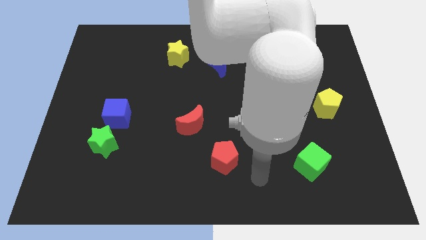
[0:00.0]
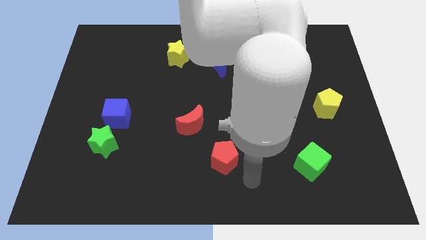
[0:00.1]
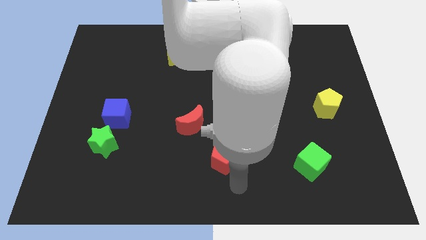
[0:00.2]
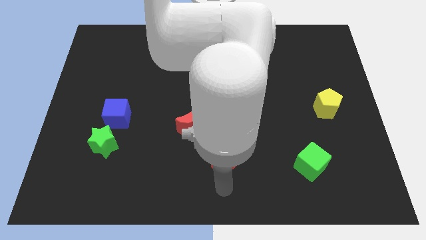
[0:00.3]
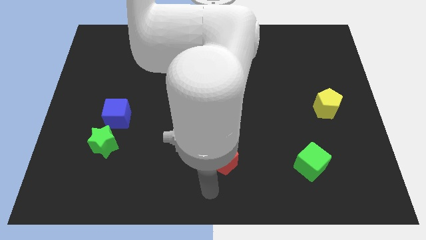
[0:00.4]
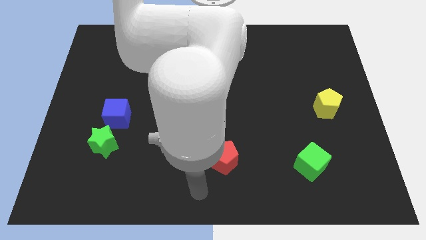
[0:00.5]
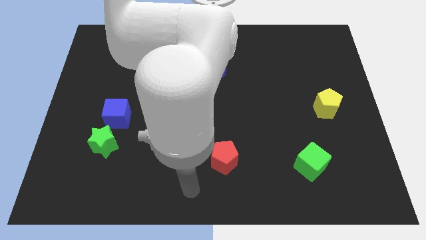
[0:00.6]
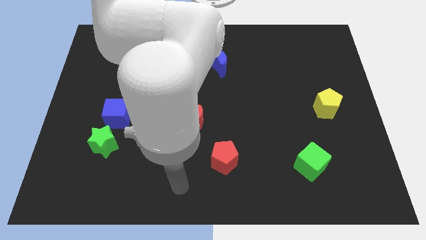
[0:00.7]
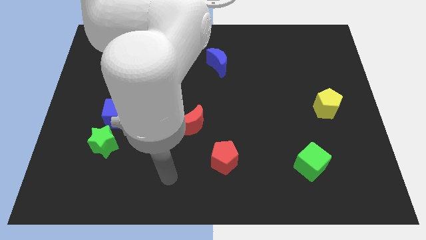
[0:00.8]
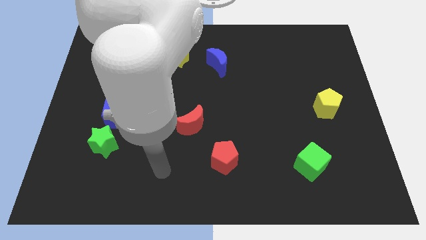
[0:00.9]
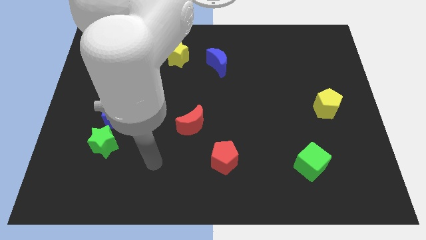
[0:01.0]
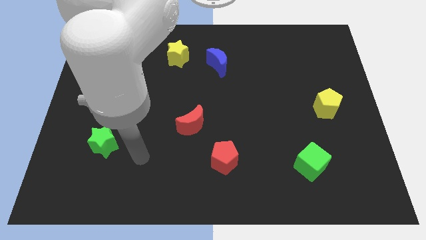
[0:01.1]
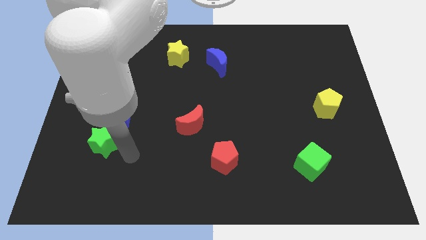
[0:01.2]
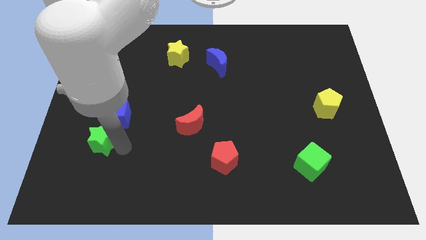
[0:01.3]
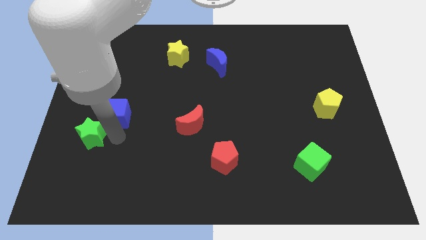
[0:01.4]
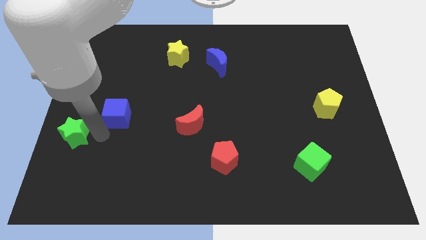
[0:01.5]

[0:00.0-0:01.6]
pull the blue cube apart from the green star

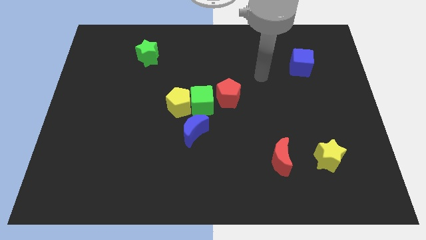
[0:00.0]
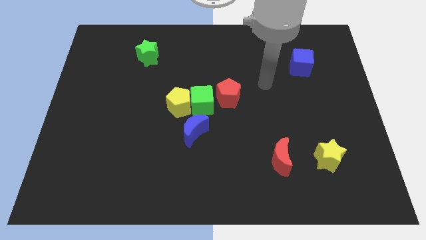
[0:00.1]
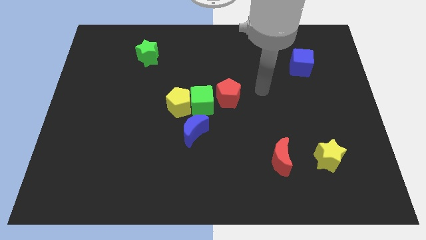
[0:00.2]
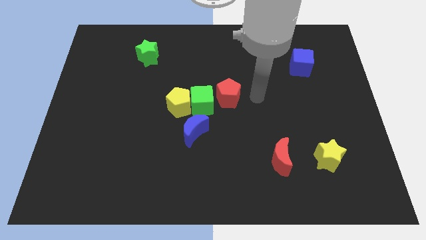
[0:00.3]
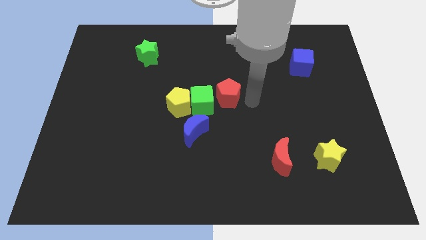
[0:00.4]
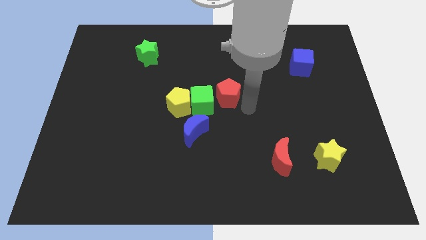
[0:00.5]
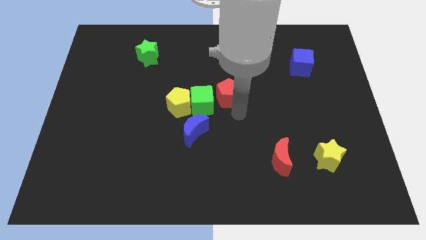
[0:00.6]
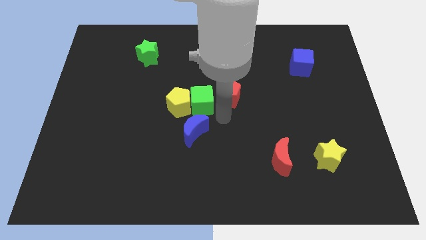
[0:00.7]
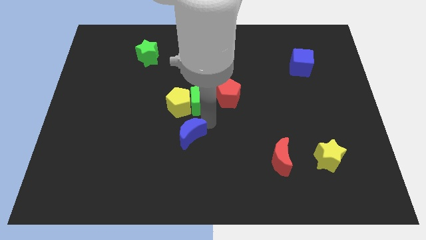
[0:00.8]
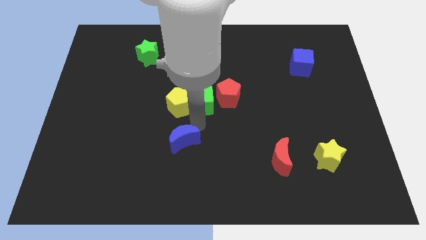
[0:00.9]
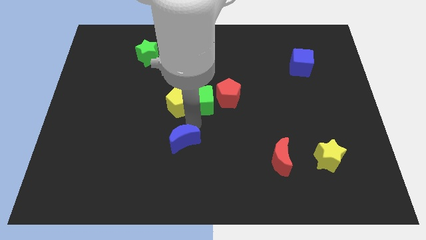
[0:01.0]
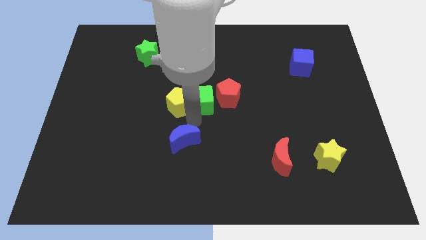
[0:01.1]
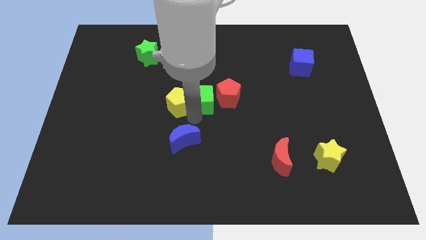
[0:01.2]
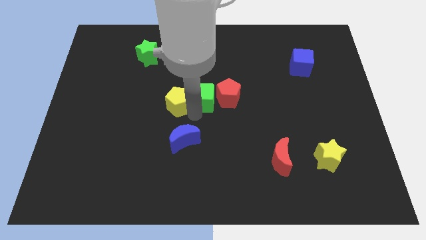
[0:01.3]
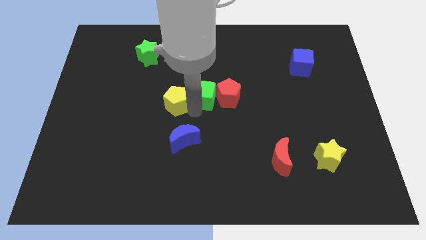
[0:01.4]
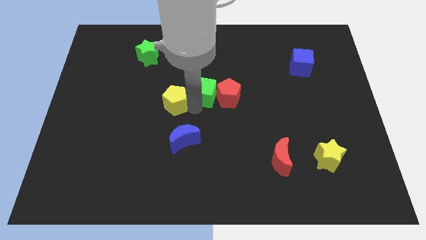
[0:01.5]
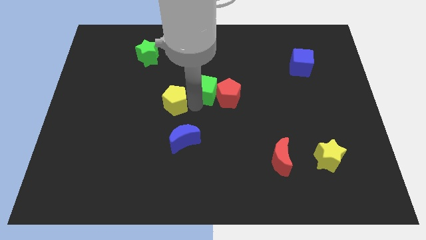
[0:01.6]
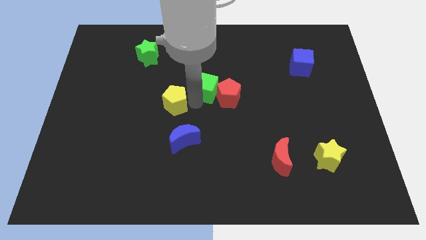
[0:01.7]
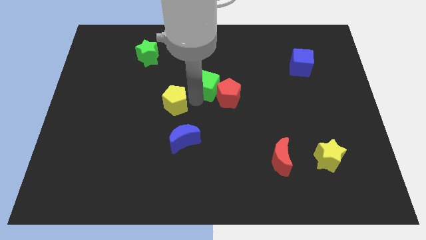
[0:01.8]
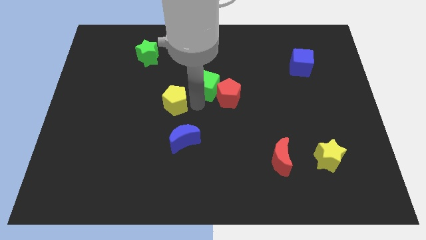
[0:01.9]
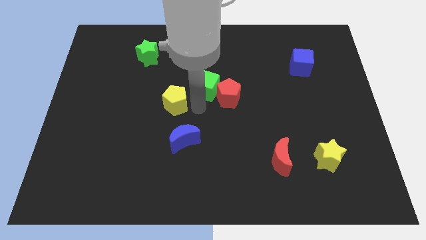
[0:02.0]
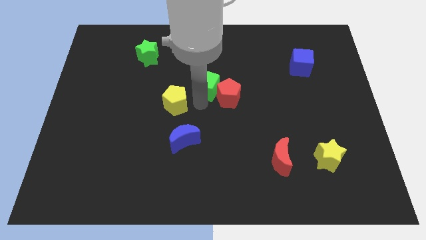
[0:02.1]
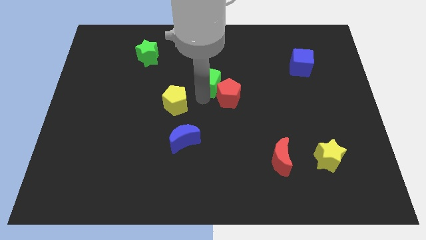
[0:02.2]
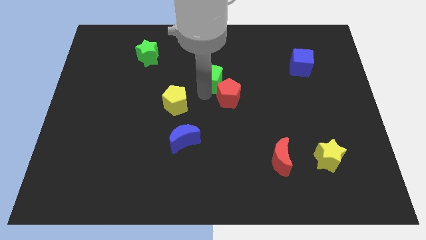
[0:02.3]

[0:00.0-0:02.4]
separate the green cube from the group of blocks

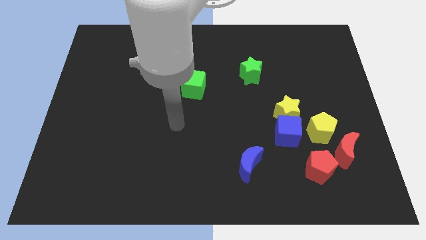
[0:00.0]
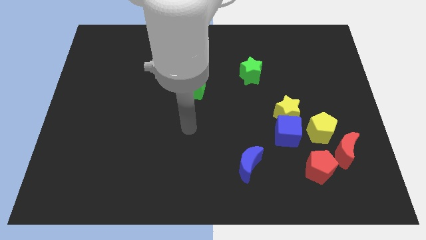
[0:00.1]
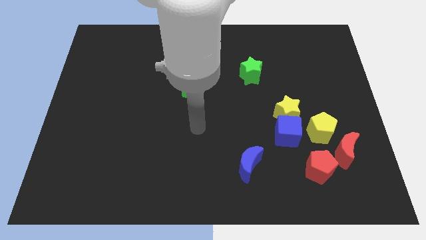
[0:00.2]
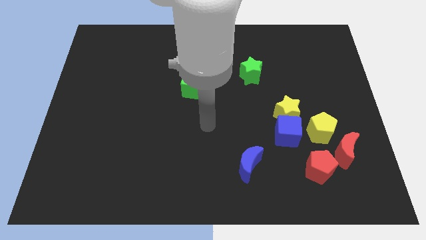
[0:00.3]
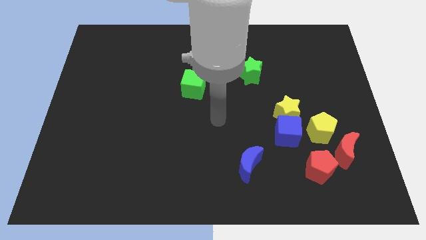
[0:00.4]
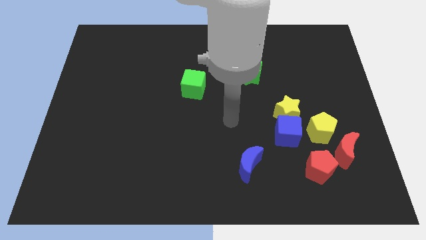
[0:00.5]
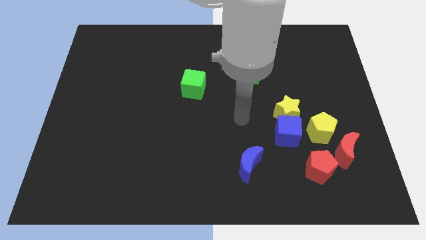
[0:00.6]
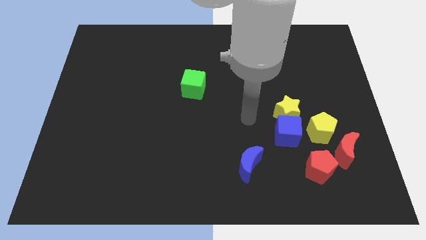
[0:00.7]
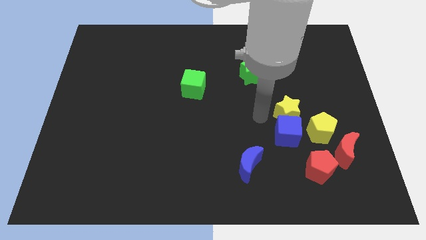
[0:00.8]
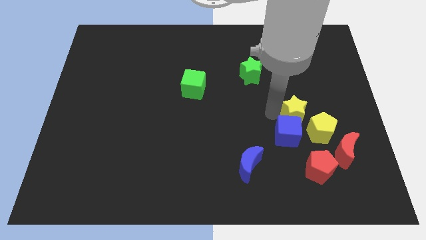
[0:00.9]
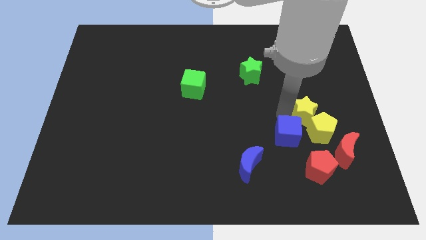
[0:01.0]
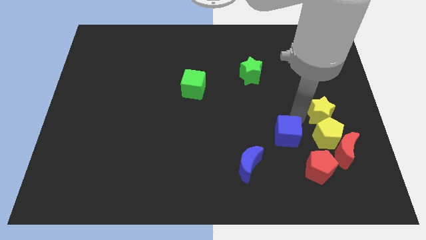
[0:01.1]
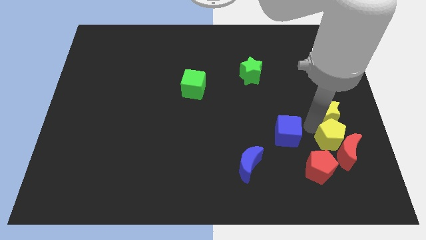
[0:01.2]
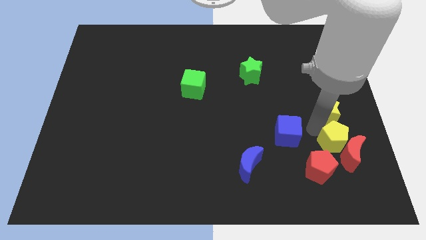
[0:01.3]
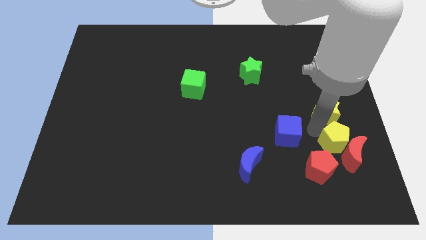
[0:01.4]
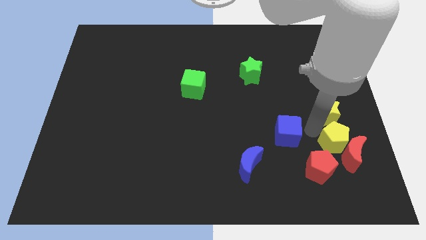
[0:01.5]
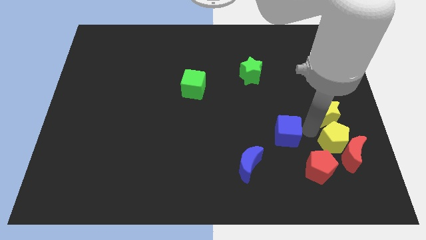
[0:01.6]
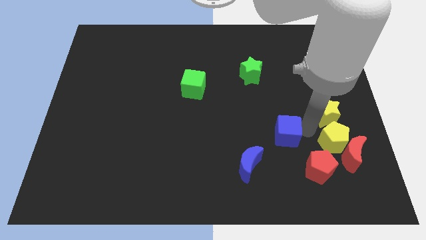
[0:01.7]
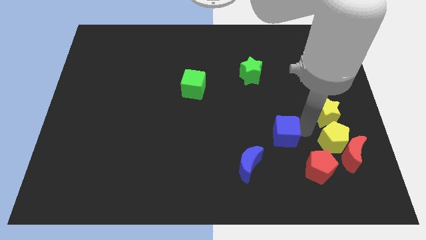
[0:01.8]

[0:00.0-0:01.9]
separate the blue cube from the yellow star and yellow pentagon

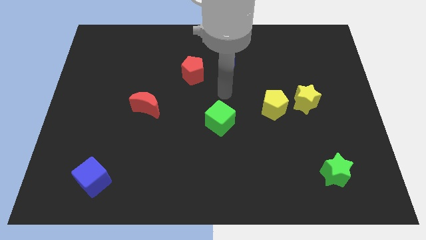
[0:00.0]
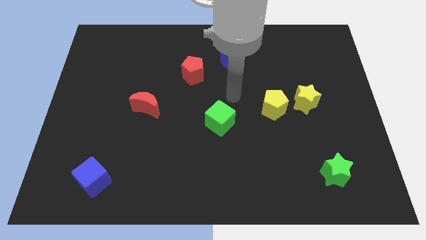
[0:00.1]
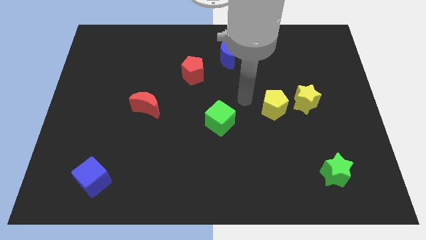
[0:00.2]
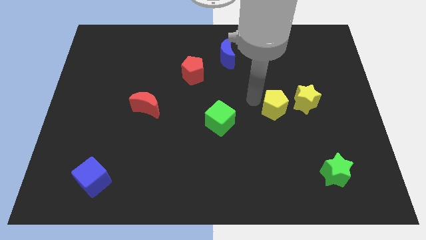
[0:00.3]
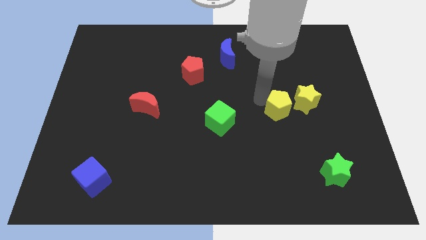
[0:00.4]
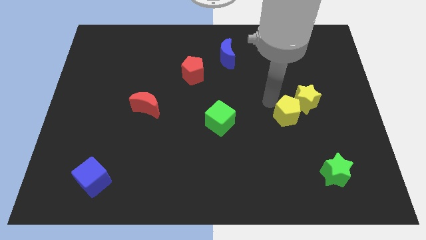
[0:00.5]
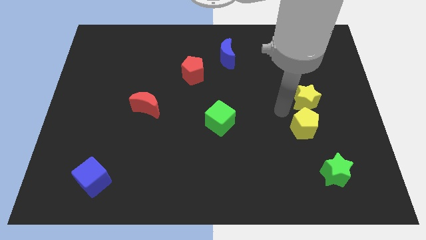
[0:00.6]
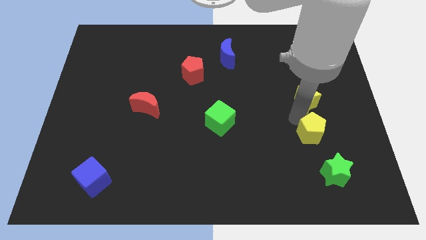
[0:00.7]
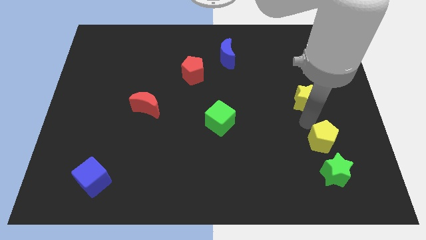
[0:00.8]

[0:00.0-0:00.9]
pull the yellow star apart from the yellow pentagon

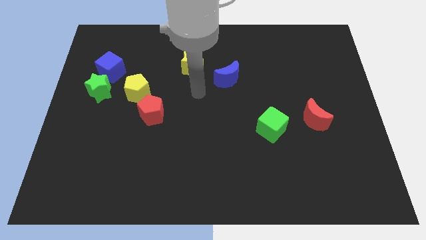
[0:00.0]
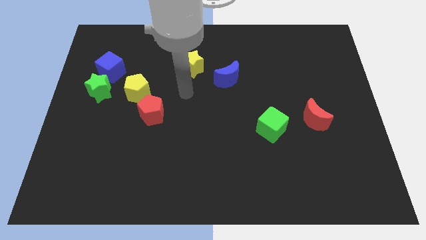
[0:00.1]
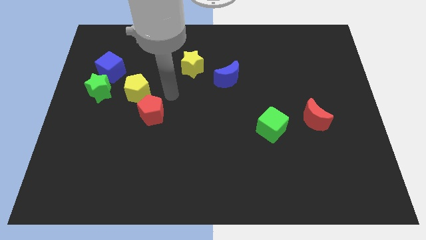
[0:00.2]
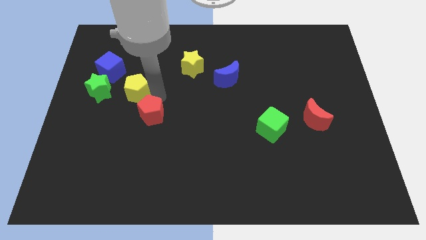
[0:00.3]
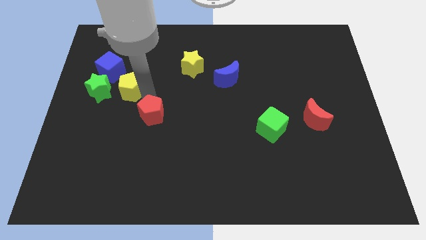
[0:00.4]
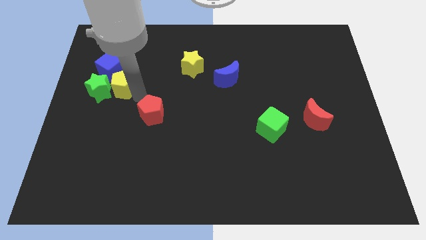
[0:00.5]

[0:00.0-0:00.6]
pull the red pentagon apart from the yellow pentagon

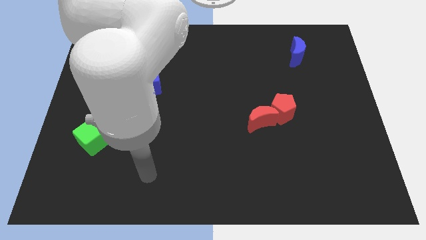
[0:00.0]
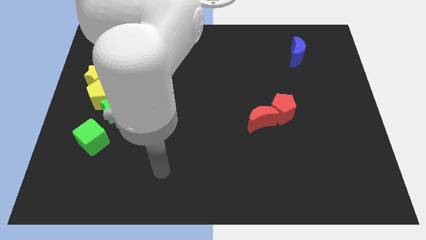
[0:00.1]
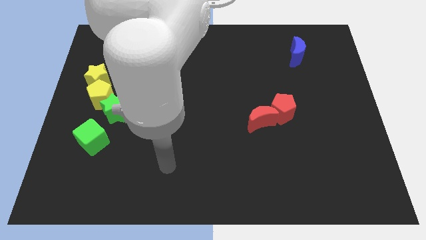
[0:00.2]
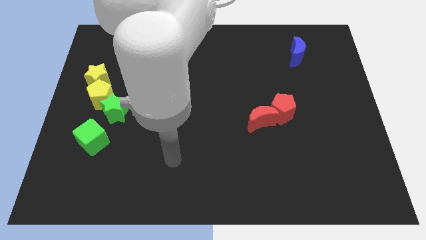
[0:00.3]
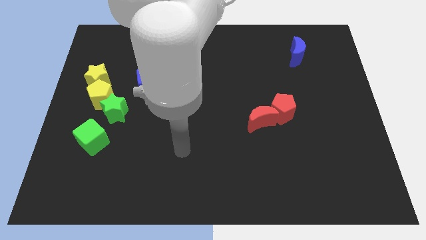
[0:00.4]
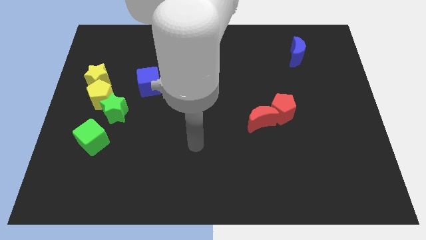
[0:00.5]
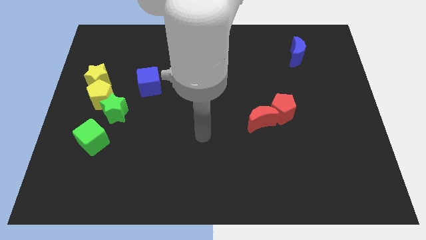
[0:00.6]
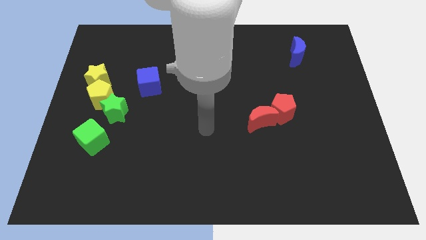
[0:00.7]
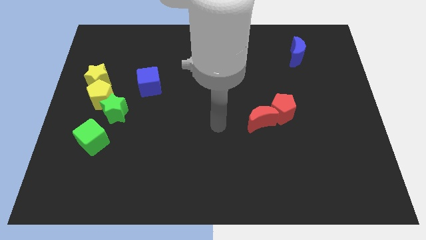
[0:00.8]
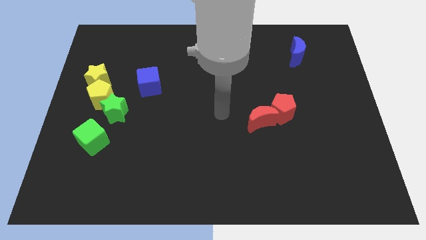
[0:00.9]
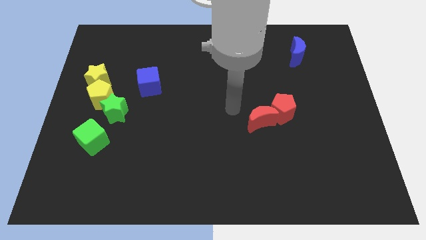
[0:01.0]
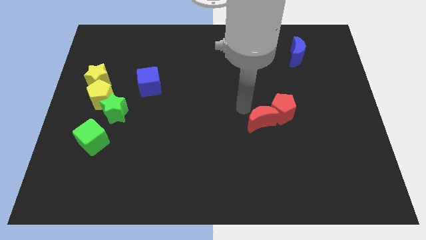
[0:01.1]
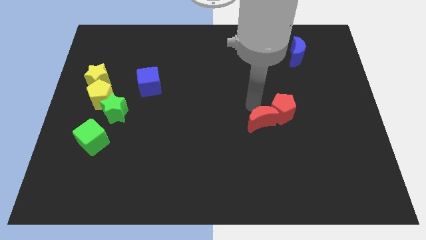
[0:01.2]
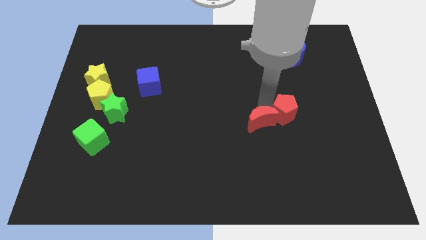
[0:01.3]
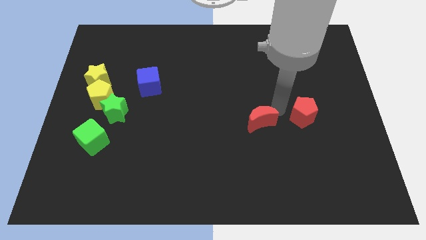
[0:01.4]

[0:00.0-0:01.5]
separate the red moon from the red pentagon

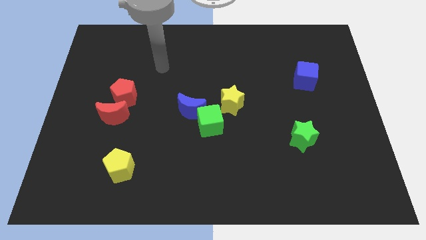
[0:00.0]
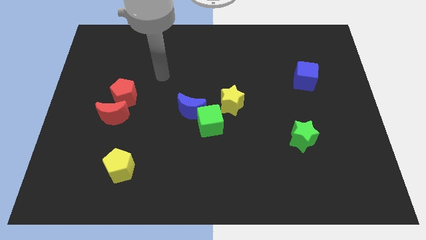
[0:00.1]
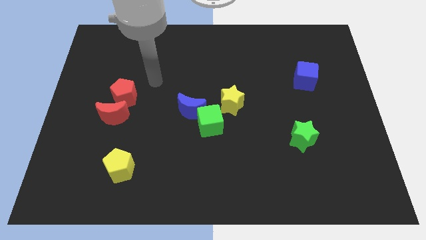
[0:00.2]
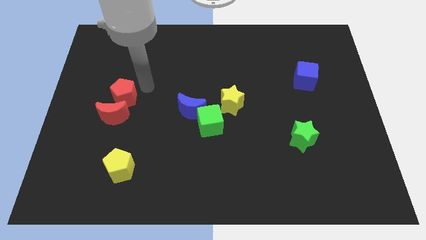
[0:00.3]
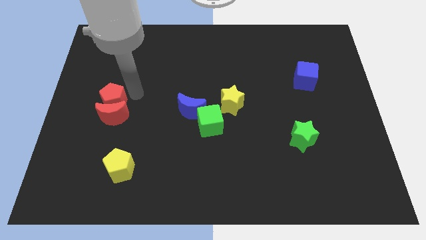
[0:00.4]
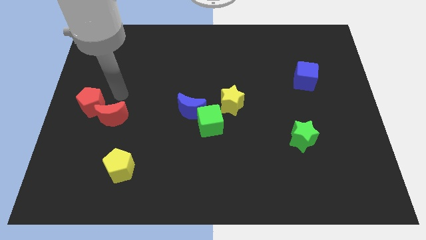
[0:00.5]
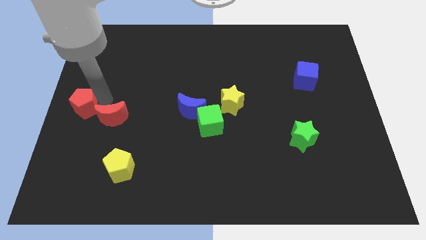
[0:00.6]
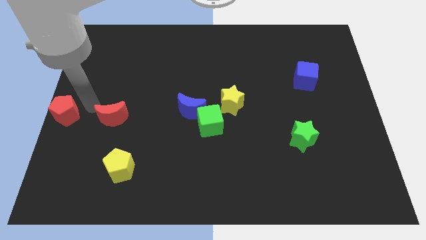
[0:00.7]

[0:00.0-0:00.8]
move the red moon away from the red pentagon
